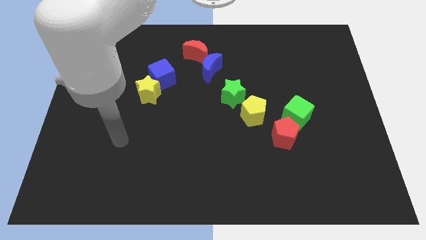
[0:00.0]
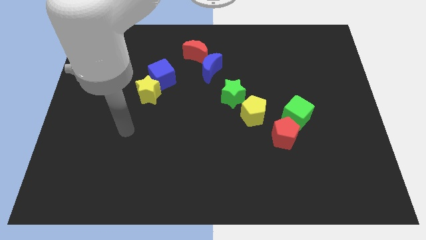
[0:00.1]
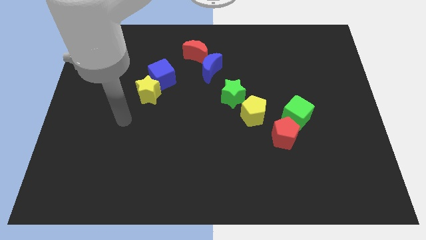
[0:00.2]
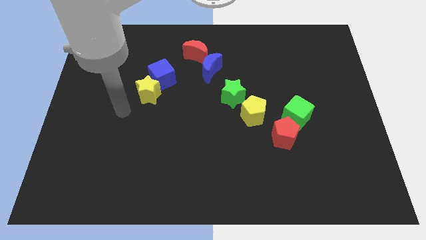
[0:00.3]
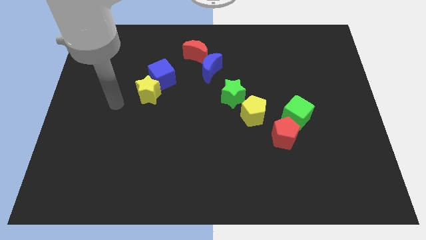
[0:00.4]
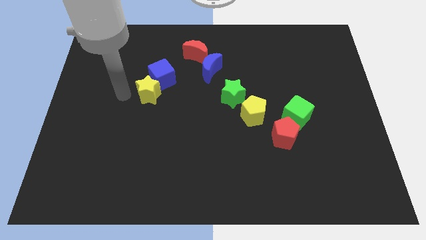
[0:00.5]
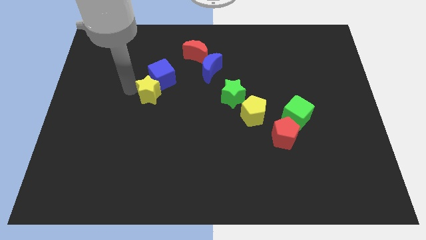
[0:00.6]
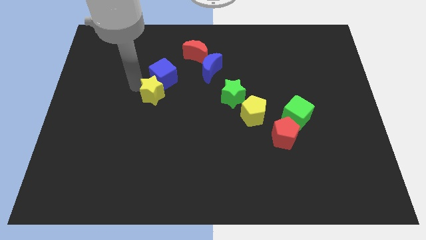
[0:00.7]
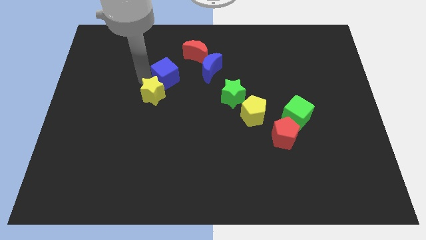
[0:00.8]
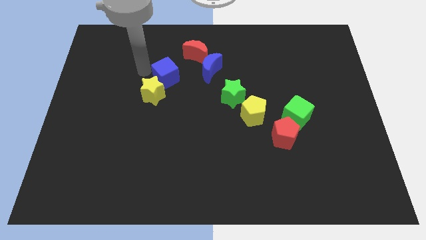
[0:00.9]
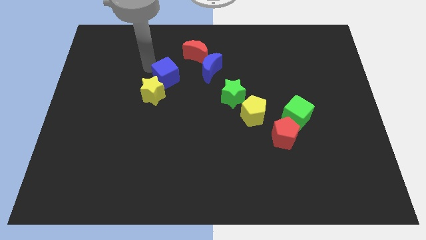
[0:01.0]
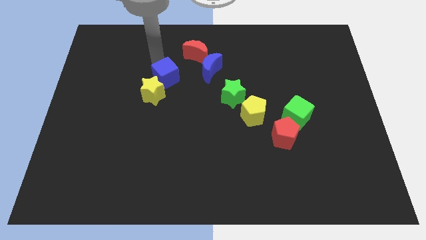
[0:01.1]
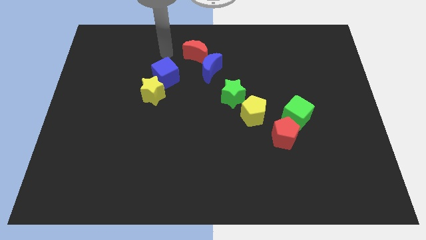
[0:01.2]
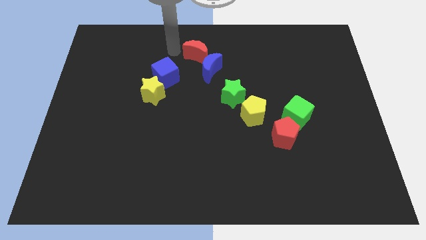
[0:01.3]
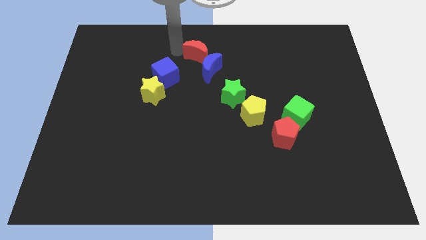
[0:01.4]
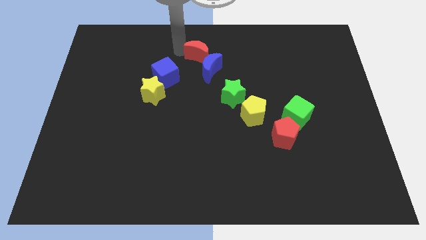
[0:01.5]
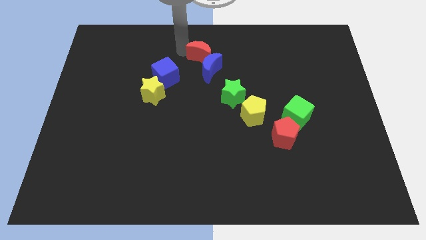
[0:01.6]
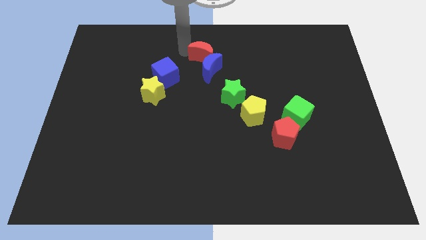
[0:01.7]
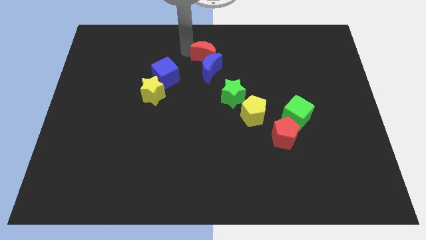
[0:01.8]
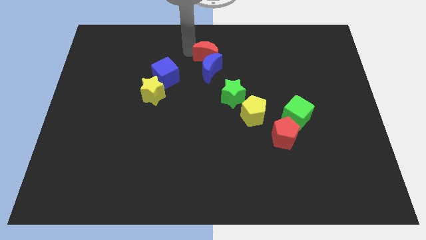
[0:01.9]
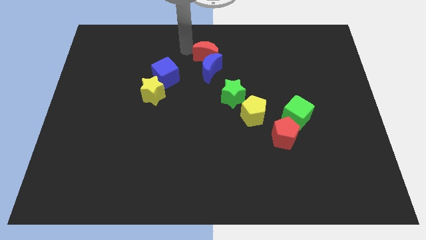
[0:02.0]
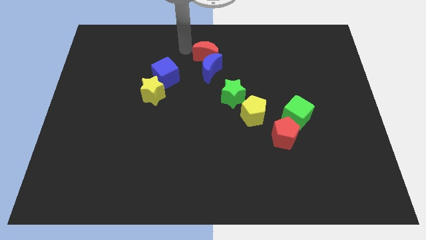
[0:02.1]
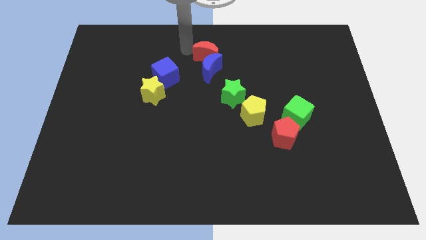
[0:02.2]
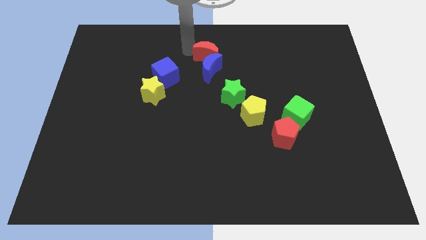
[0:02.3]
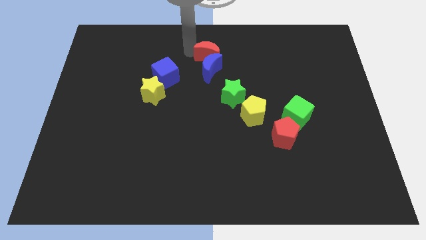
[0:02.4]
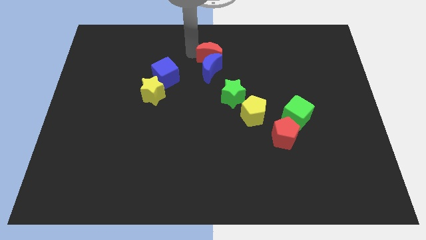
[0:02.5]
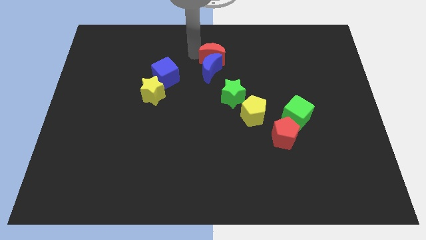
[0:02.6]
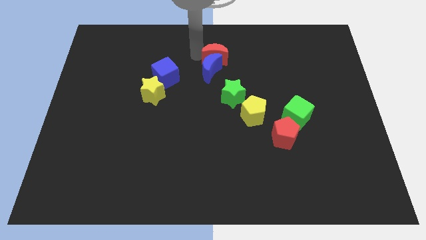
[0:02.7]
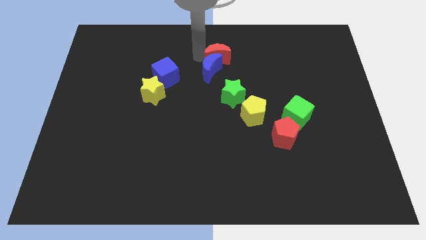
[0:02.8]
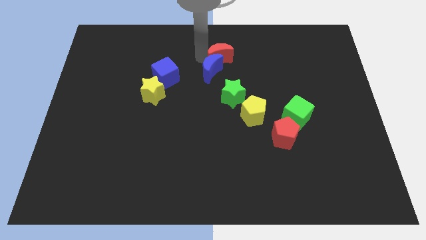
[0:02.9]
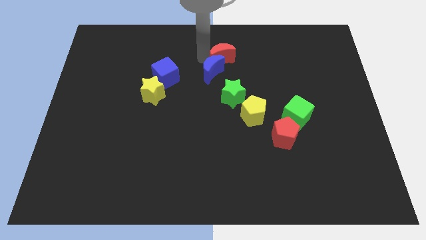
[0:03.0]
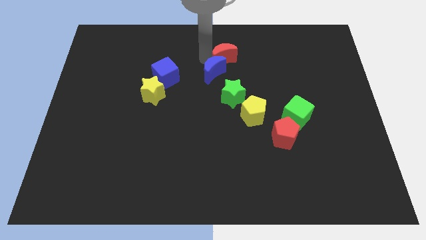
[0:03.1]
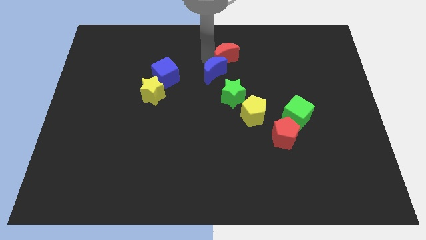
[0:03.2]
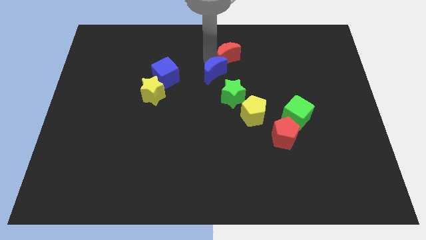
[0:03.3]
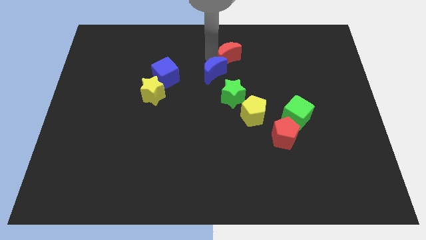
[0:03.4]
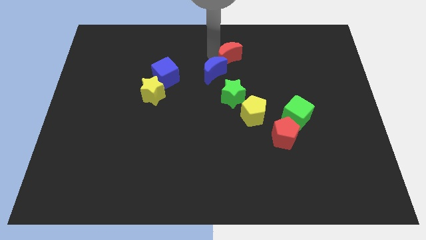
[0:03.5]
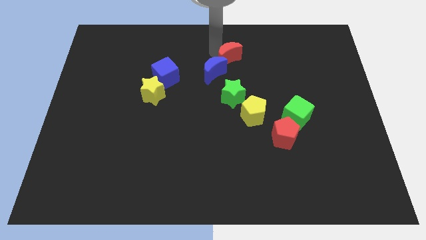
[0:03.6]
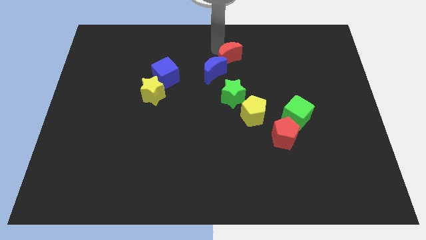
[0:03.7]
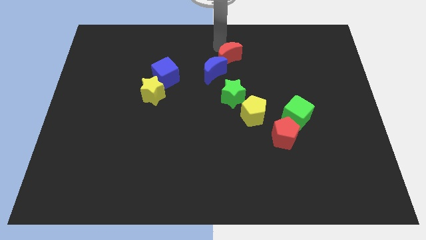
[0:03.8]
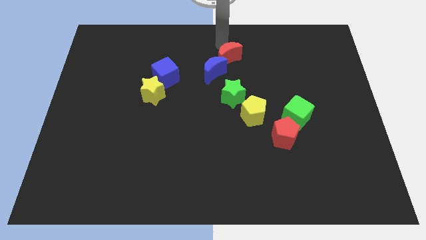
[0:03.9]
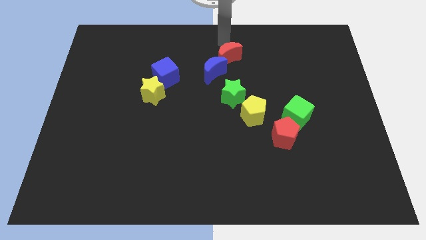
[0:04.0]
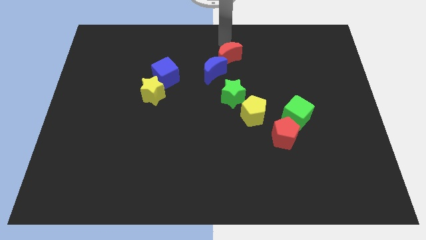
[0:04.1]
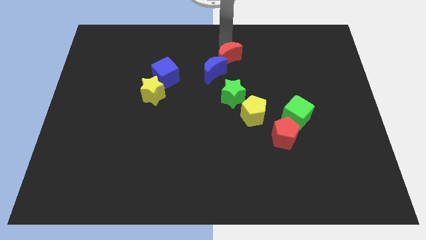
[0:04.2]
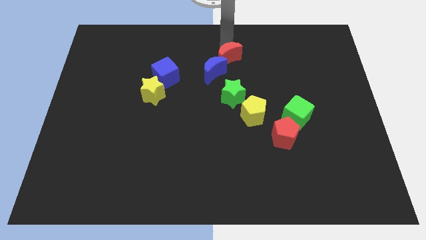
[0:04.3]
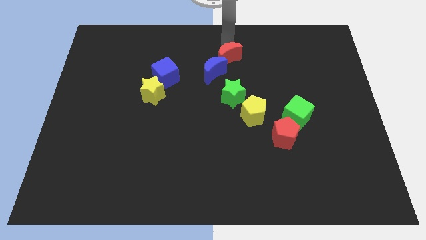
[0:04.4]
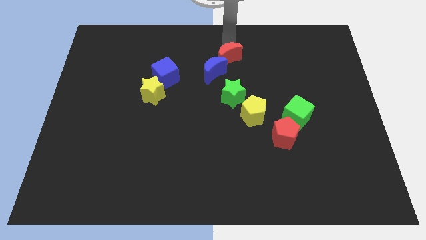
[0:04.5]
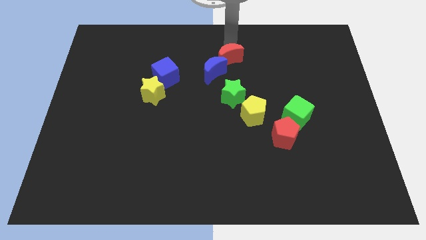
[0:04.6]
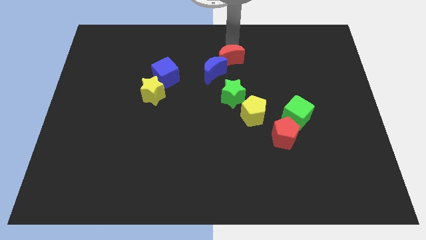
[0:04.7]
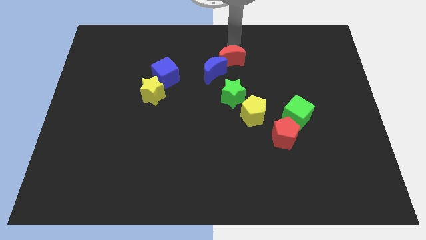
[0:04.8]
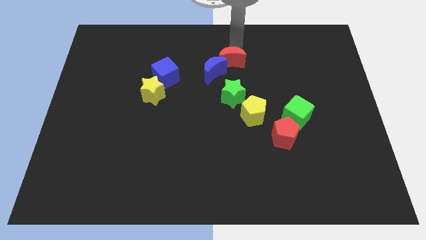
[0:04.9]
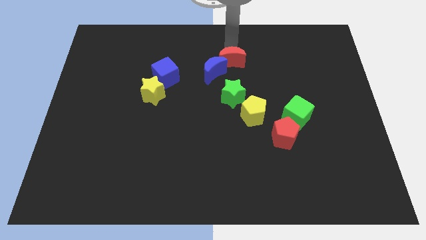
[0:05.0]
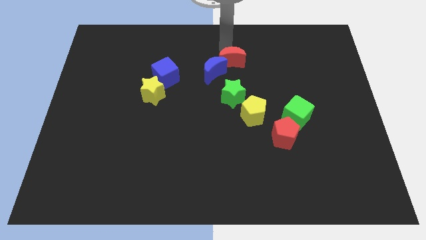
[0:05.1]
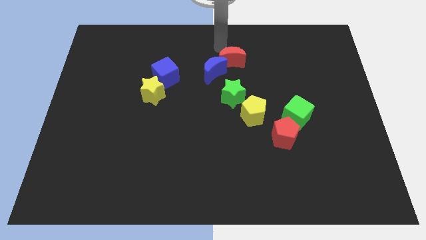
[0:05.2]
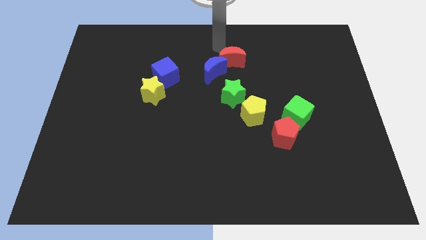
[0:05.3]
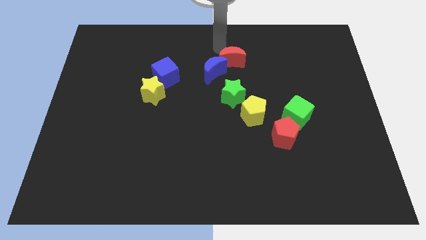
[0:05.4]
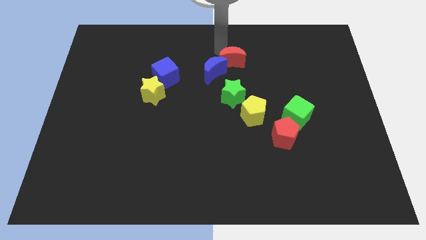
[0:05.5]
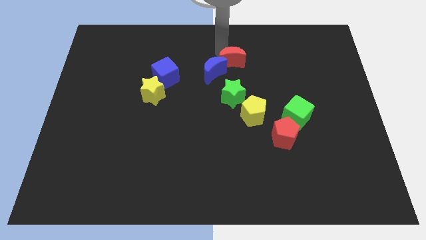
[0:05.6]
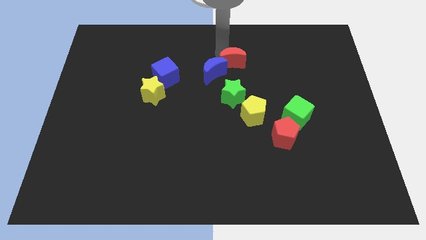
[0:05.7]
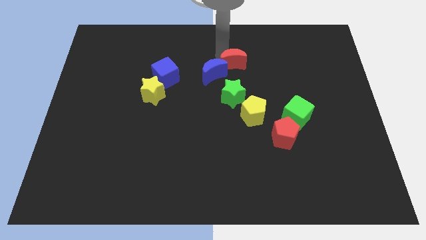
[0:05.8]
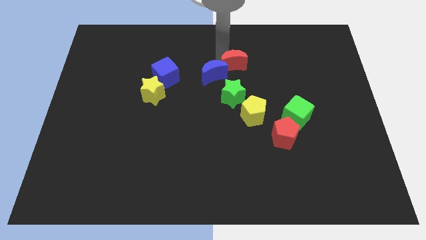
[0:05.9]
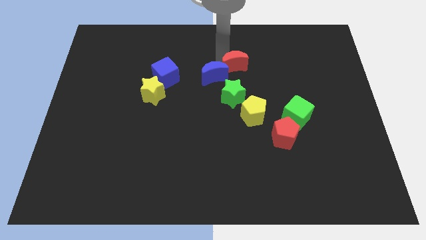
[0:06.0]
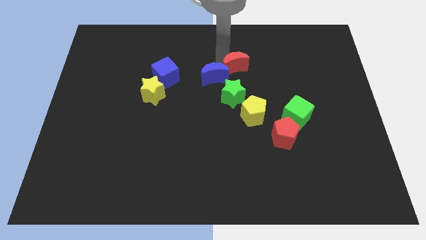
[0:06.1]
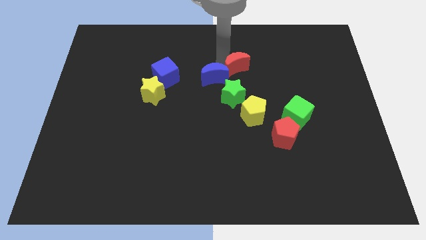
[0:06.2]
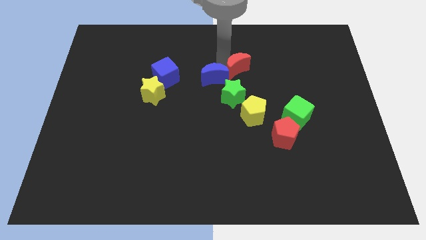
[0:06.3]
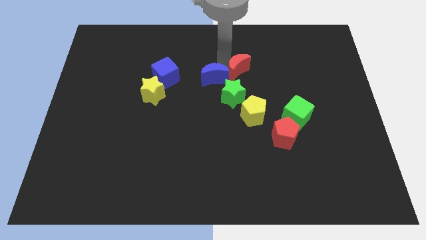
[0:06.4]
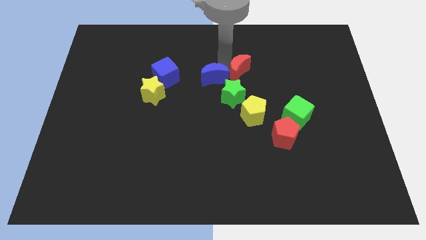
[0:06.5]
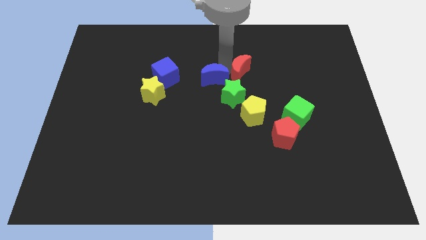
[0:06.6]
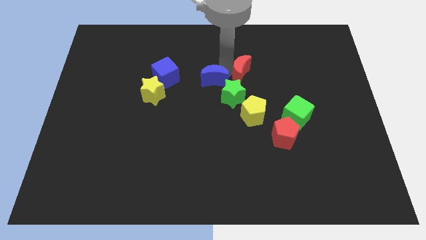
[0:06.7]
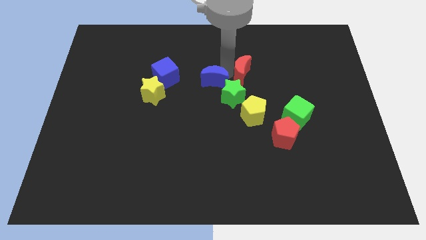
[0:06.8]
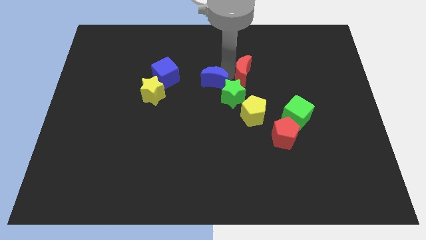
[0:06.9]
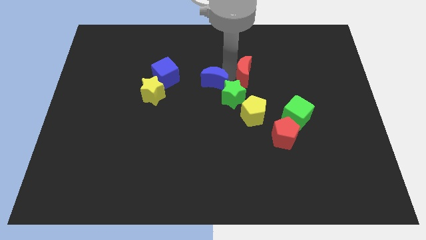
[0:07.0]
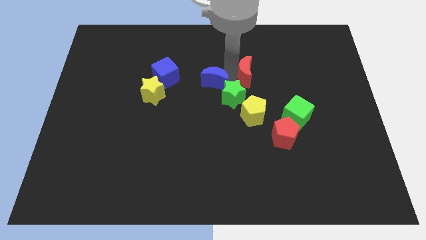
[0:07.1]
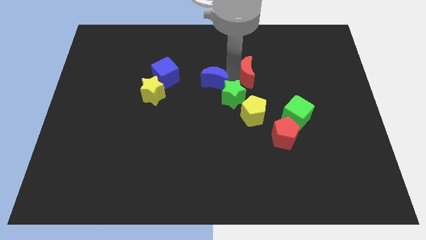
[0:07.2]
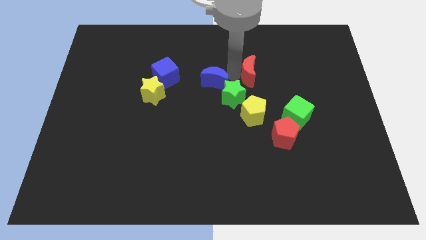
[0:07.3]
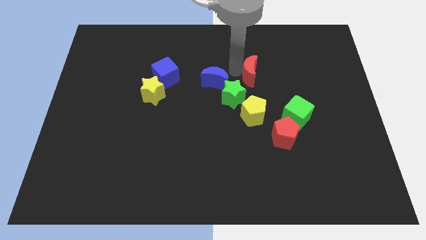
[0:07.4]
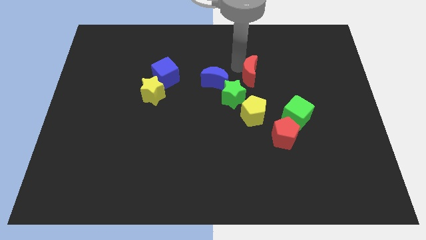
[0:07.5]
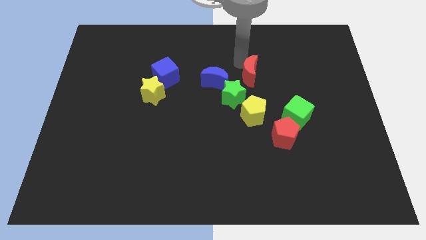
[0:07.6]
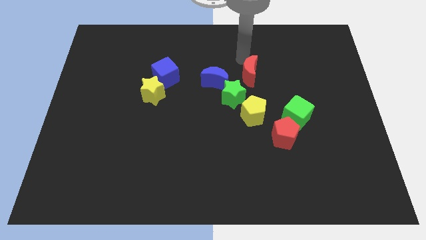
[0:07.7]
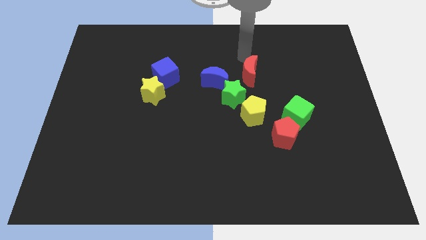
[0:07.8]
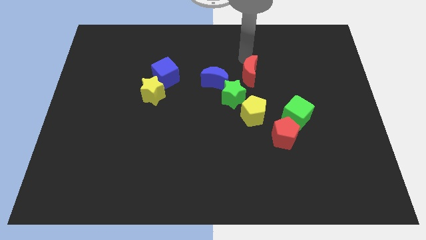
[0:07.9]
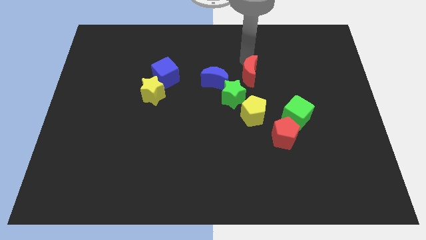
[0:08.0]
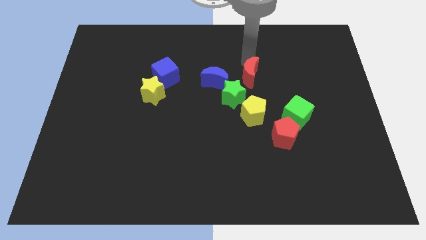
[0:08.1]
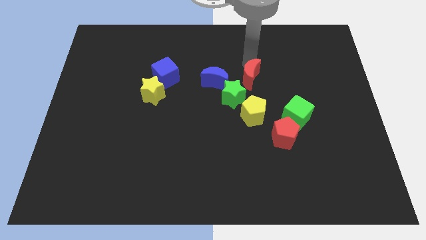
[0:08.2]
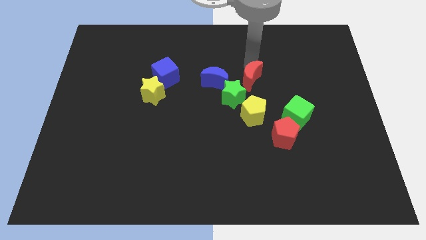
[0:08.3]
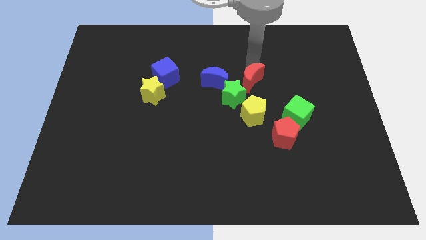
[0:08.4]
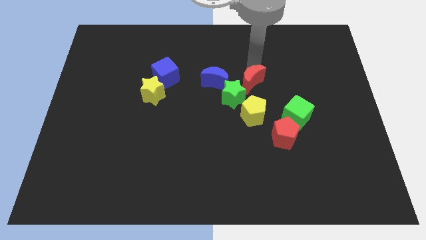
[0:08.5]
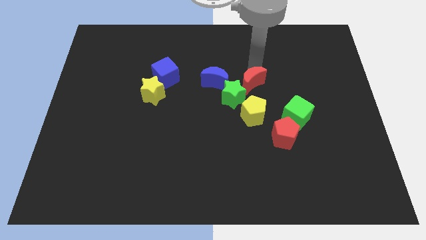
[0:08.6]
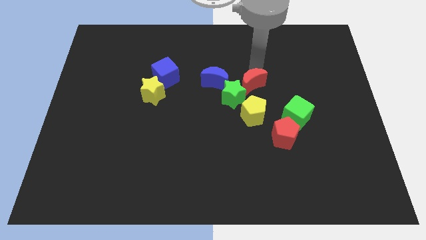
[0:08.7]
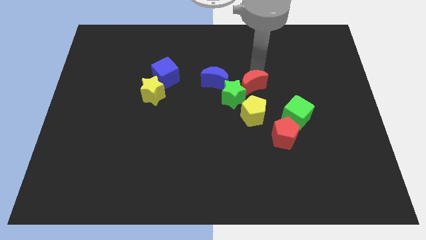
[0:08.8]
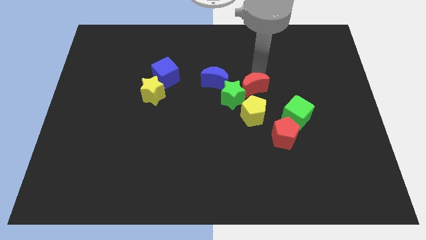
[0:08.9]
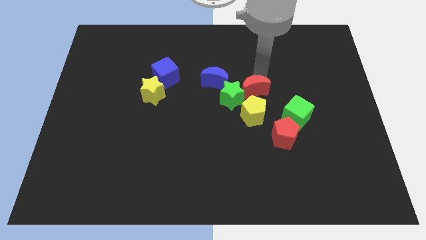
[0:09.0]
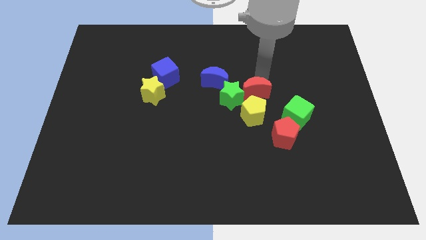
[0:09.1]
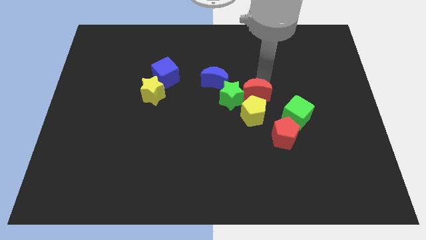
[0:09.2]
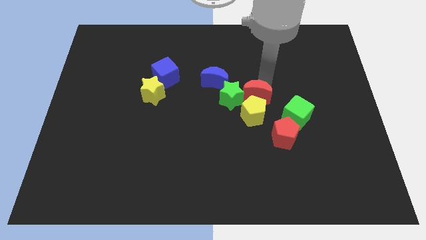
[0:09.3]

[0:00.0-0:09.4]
put the red moon next to the yellow pentagon
